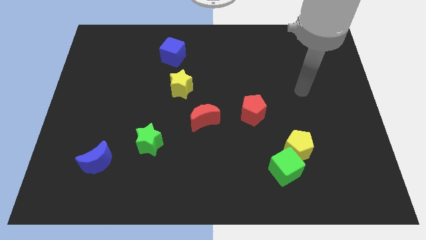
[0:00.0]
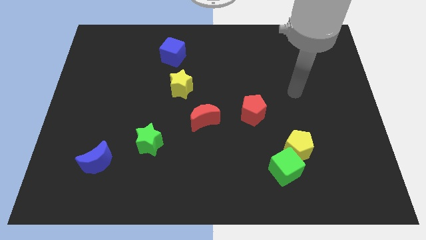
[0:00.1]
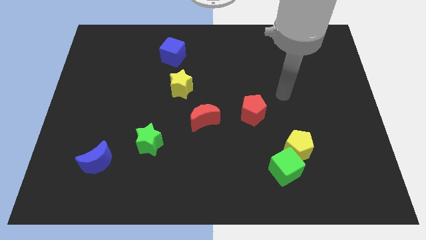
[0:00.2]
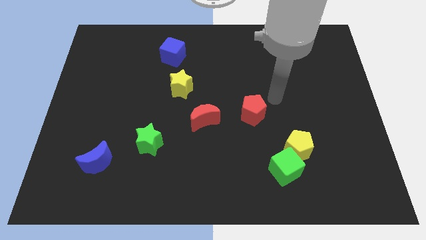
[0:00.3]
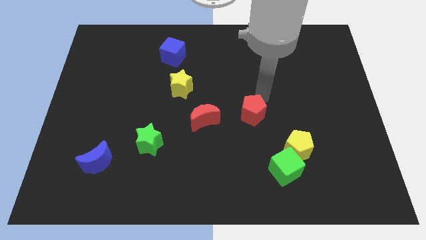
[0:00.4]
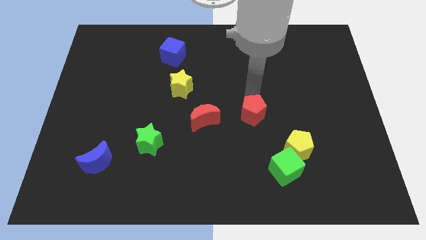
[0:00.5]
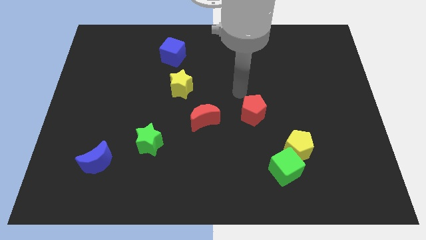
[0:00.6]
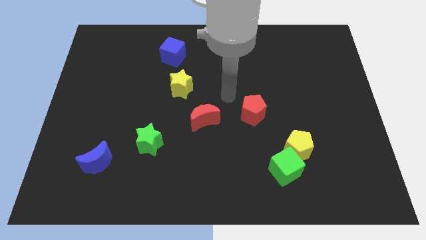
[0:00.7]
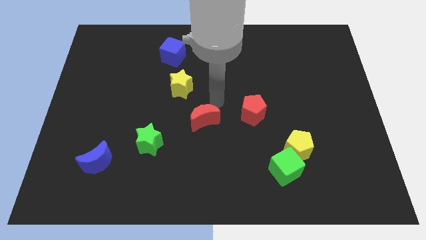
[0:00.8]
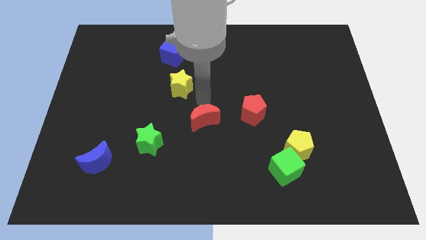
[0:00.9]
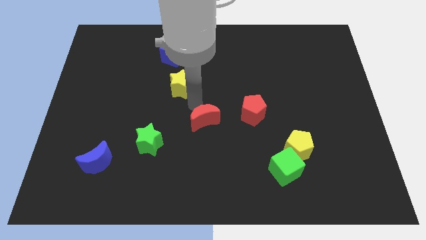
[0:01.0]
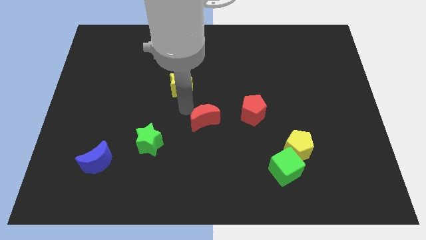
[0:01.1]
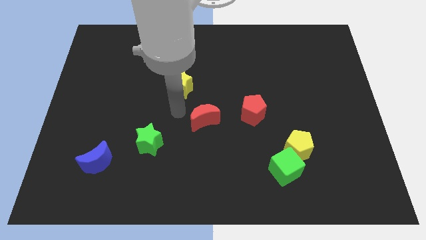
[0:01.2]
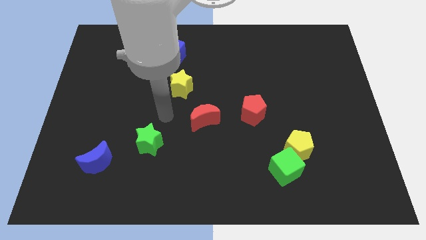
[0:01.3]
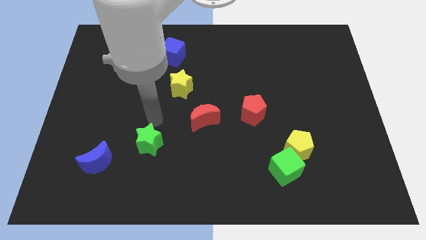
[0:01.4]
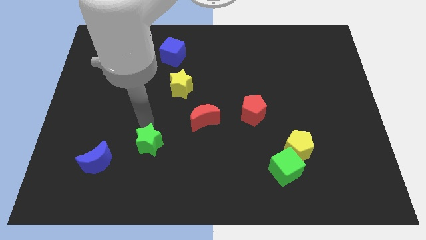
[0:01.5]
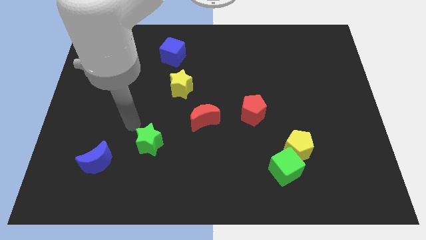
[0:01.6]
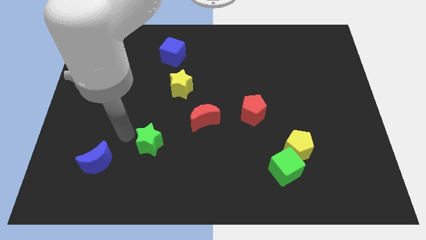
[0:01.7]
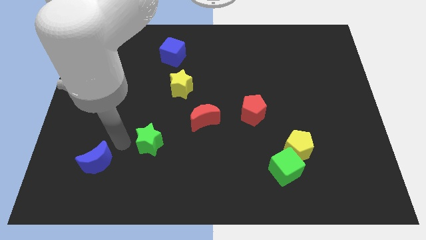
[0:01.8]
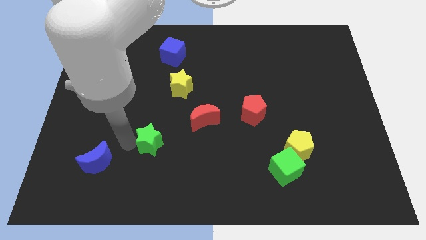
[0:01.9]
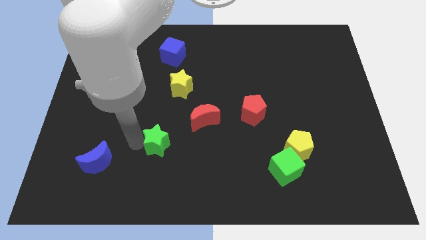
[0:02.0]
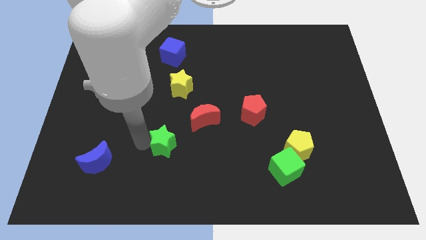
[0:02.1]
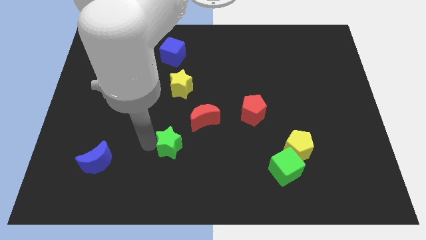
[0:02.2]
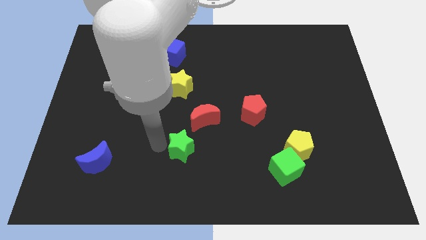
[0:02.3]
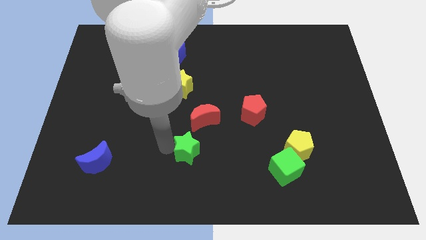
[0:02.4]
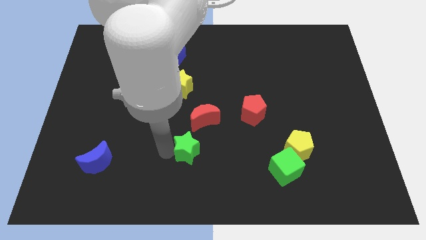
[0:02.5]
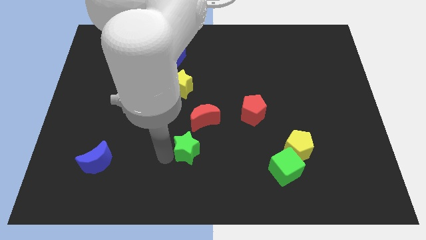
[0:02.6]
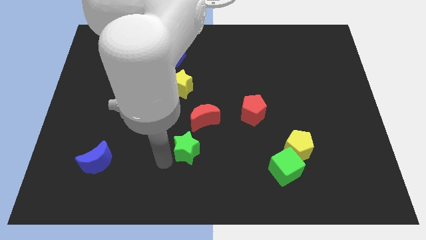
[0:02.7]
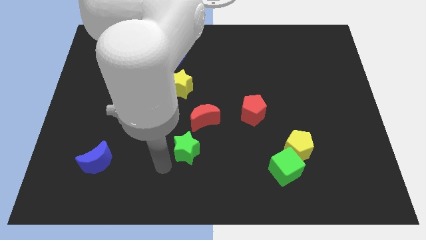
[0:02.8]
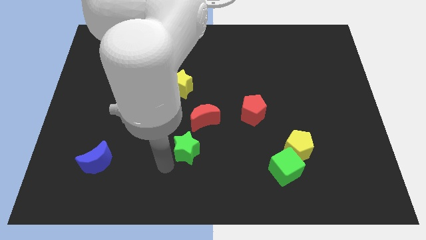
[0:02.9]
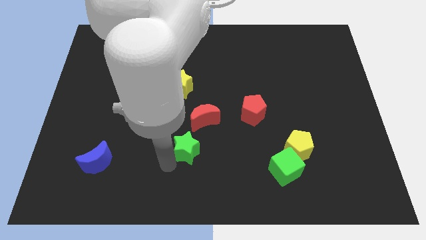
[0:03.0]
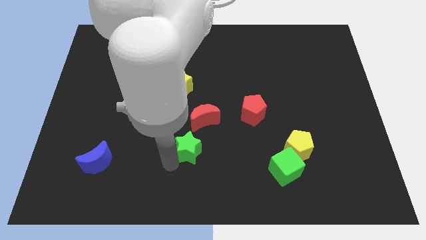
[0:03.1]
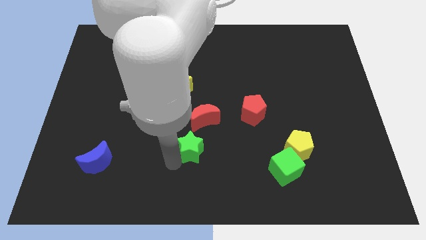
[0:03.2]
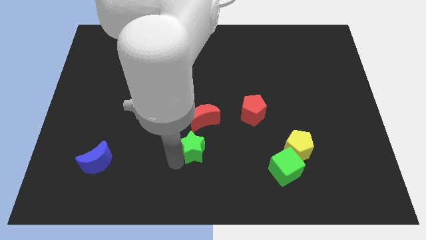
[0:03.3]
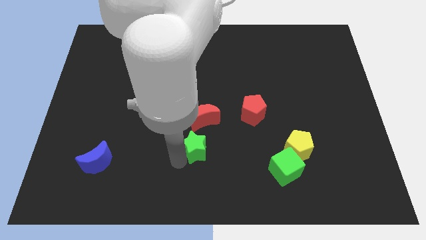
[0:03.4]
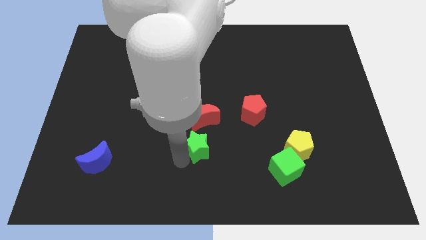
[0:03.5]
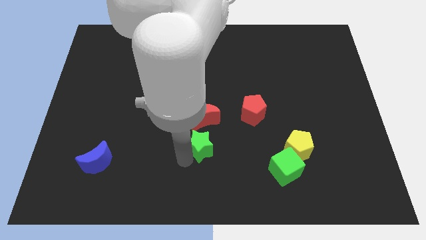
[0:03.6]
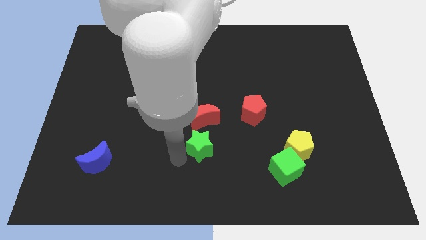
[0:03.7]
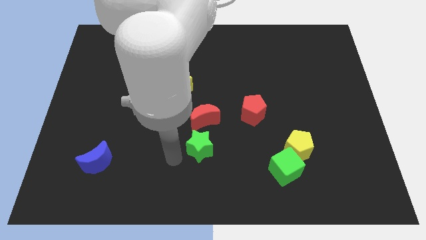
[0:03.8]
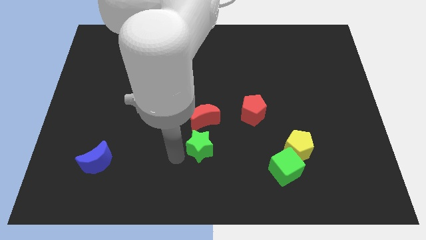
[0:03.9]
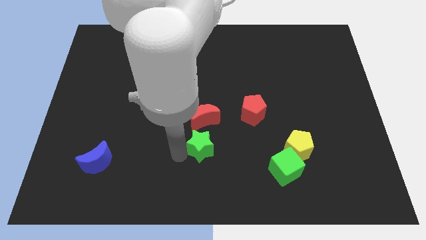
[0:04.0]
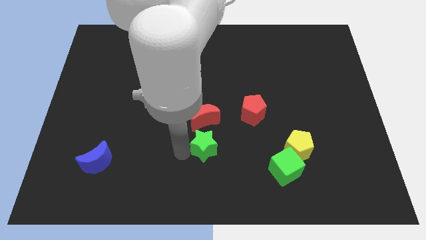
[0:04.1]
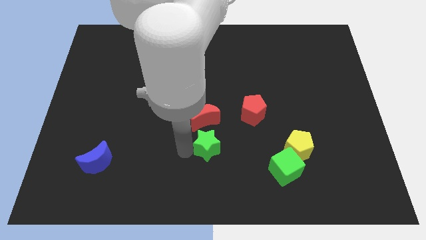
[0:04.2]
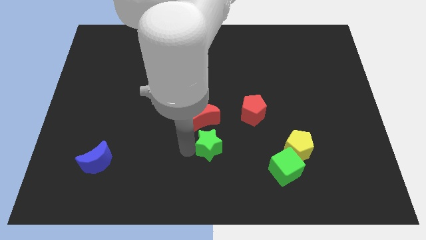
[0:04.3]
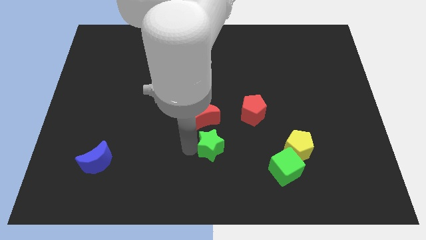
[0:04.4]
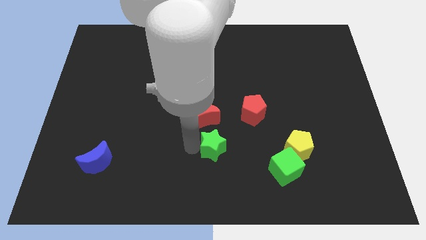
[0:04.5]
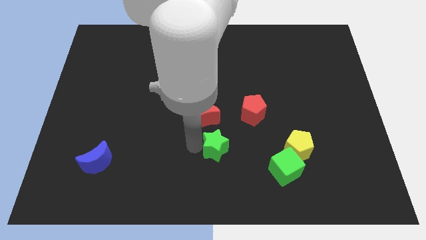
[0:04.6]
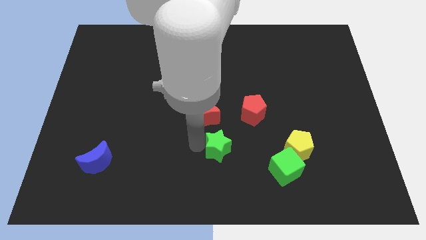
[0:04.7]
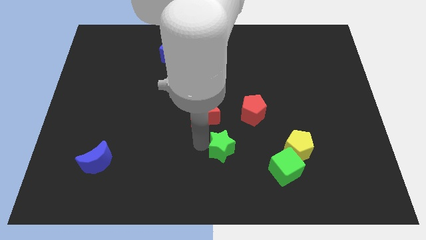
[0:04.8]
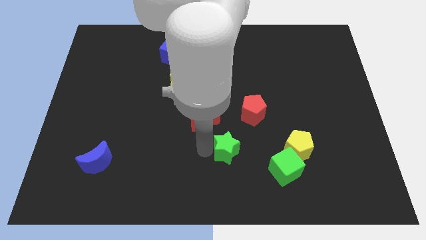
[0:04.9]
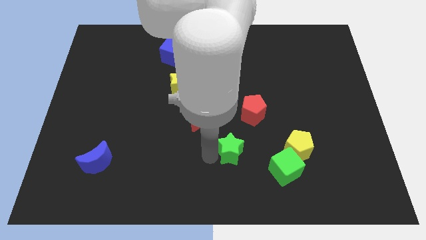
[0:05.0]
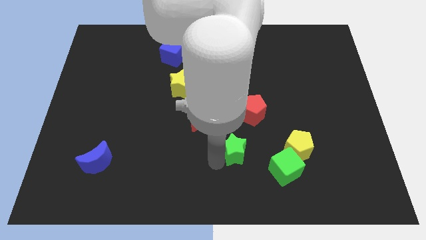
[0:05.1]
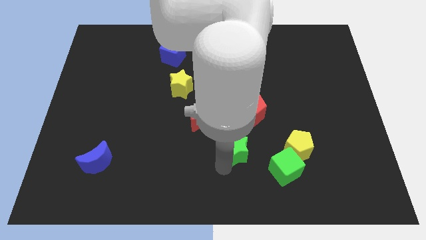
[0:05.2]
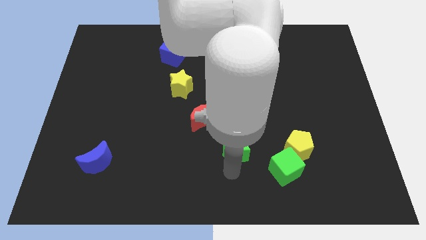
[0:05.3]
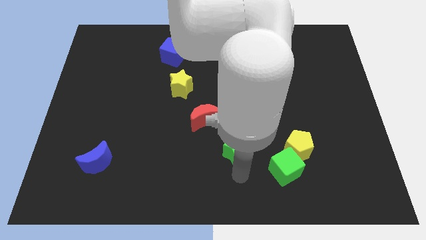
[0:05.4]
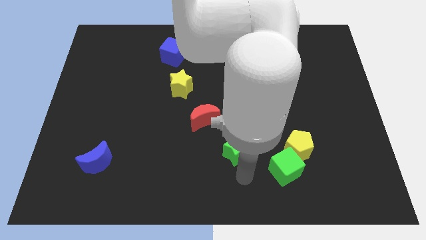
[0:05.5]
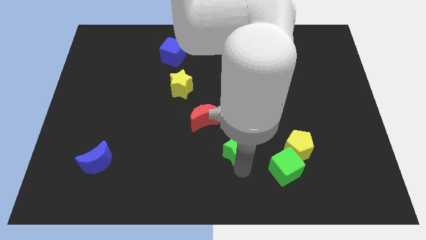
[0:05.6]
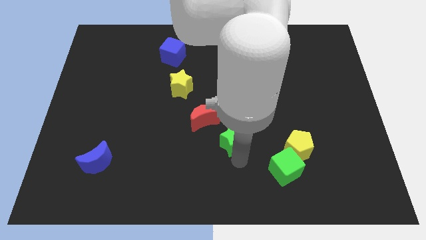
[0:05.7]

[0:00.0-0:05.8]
push the green star to the middle

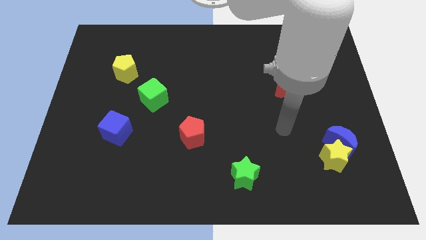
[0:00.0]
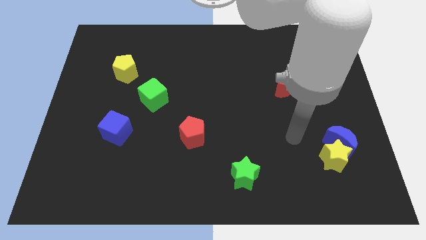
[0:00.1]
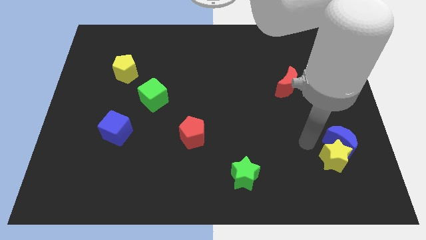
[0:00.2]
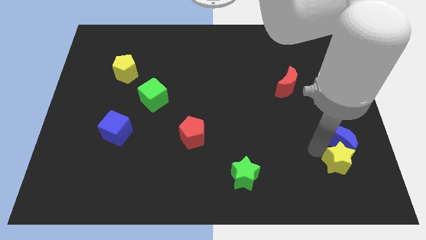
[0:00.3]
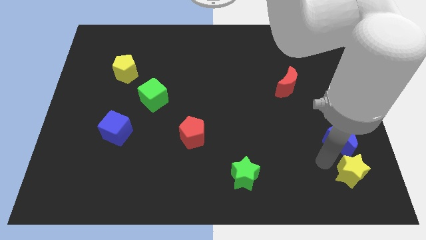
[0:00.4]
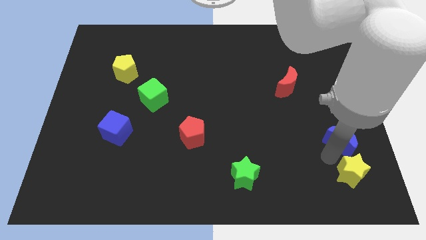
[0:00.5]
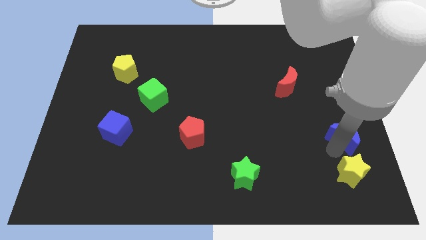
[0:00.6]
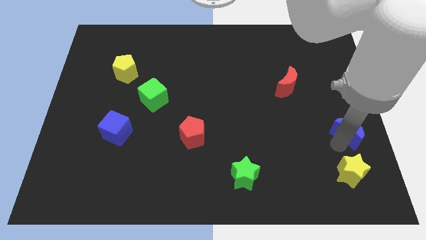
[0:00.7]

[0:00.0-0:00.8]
push the blue moon to the right side

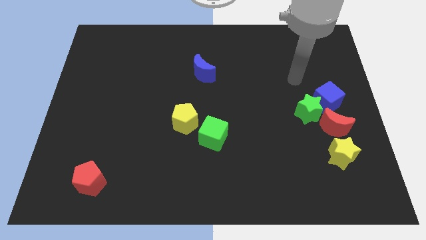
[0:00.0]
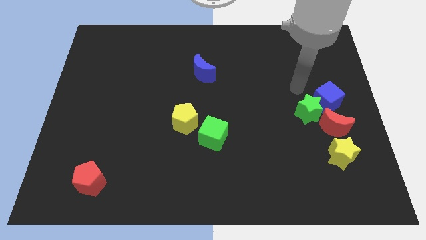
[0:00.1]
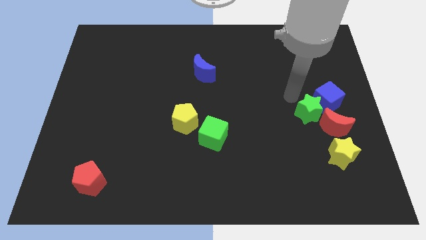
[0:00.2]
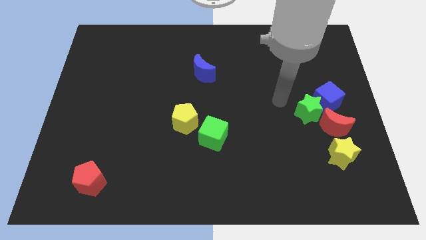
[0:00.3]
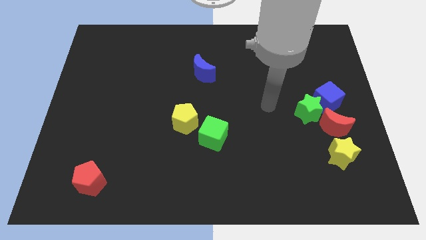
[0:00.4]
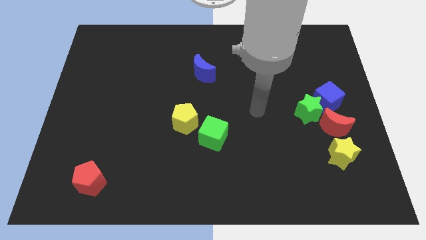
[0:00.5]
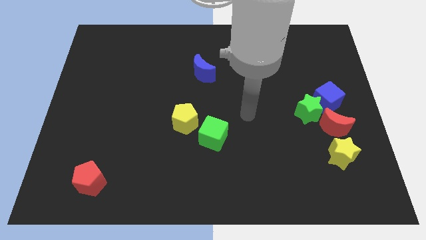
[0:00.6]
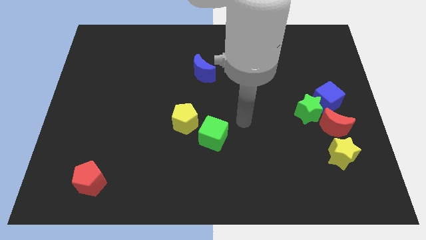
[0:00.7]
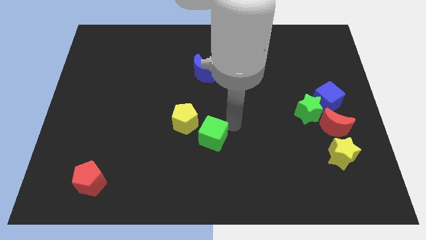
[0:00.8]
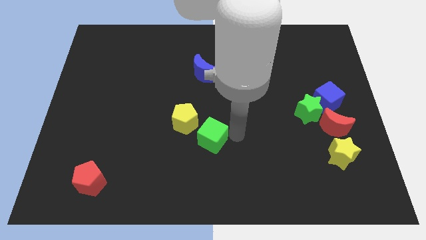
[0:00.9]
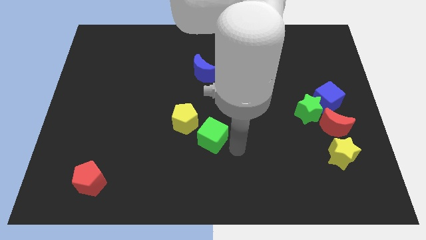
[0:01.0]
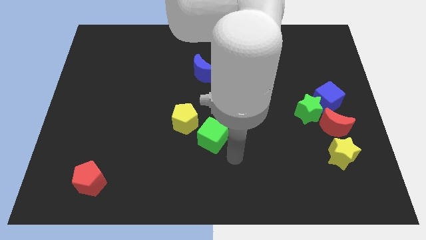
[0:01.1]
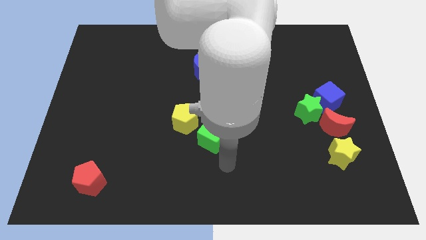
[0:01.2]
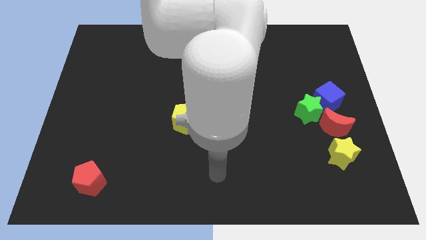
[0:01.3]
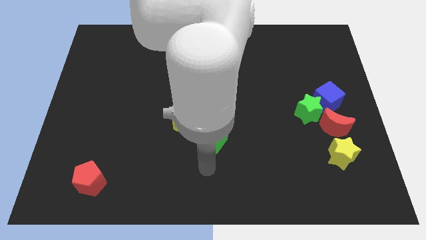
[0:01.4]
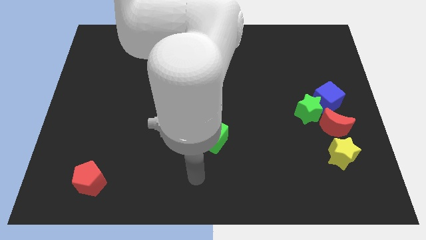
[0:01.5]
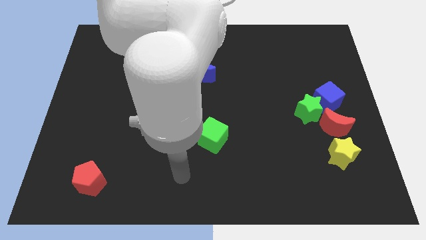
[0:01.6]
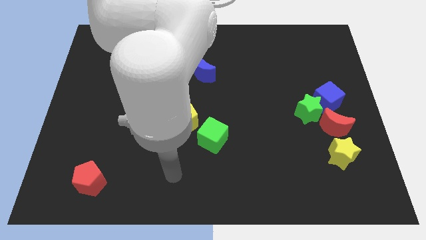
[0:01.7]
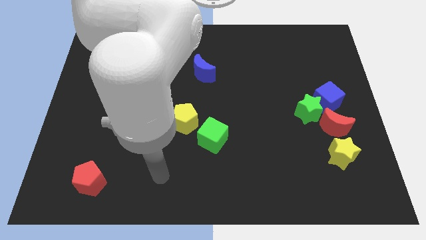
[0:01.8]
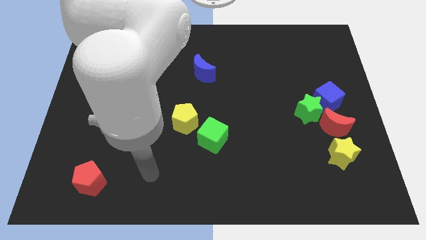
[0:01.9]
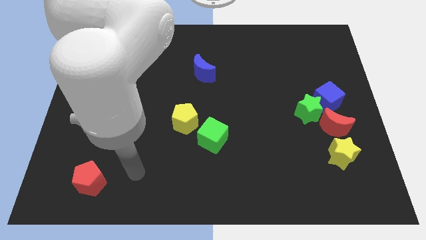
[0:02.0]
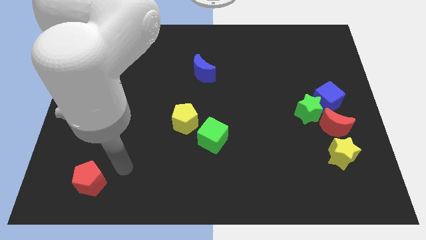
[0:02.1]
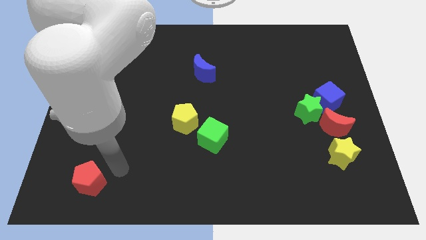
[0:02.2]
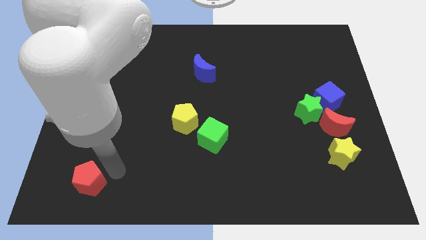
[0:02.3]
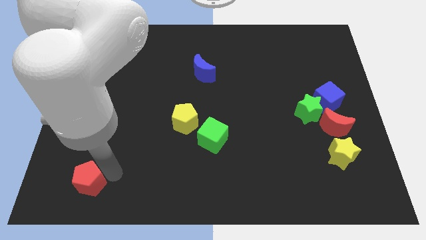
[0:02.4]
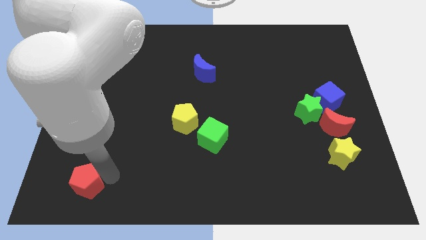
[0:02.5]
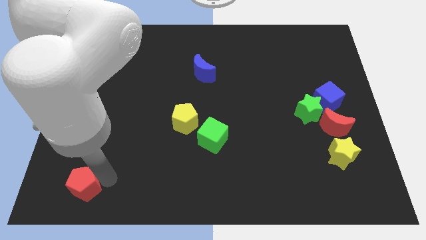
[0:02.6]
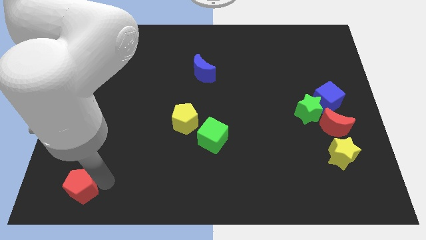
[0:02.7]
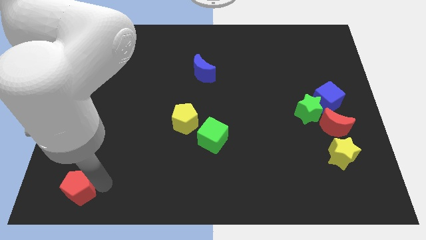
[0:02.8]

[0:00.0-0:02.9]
push the red pentagon to the bottom left of the board
